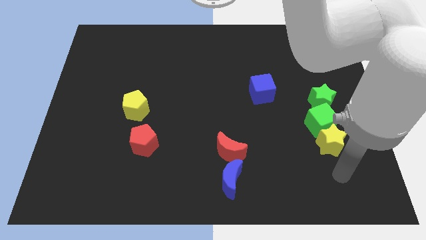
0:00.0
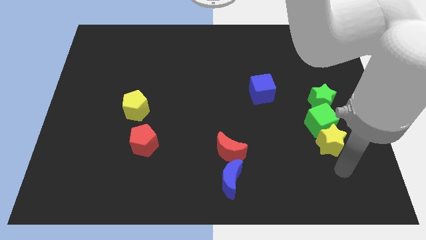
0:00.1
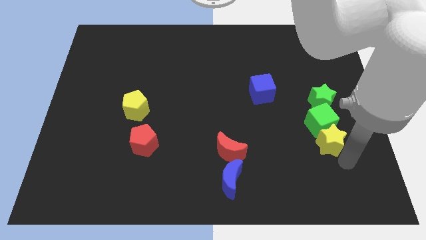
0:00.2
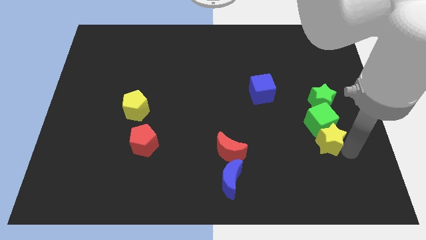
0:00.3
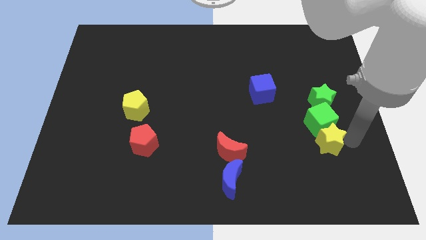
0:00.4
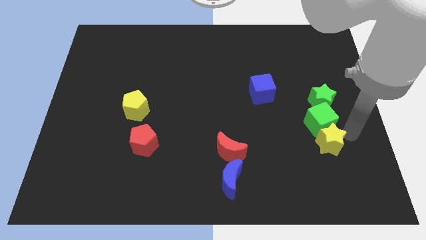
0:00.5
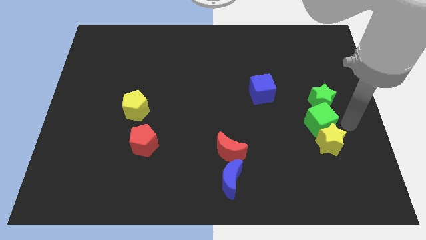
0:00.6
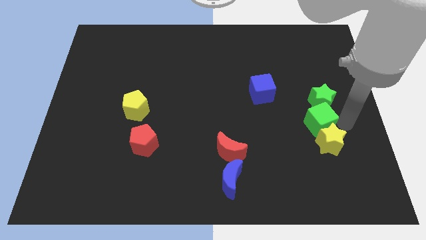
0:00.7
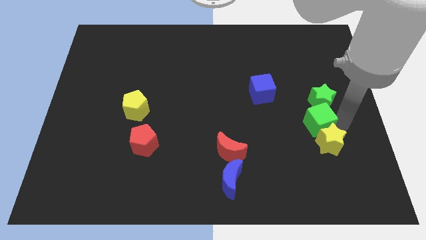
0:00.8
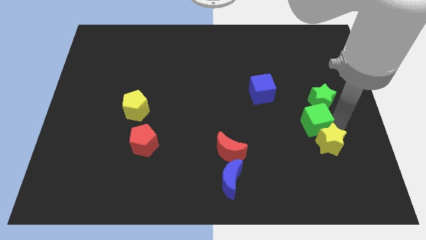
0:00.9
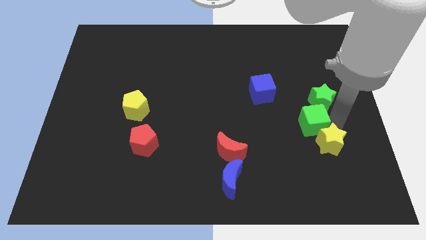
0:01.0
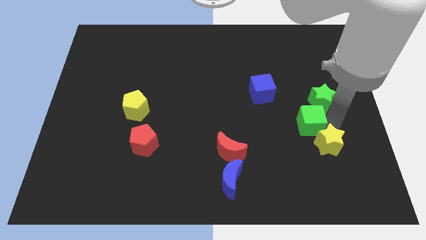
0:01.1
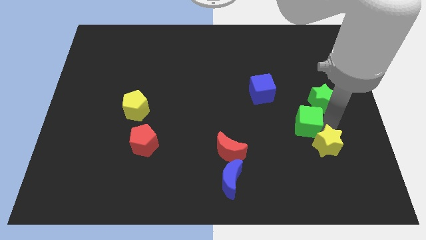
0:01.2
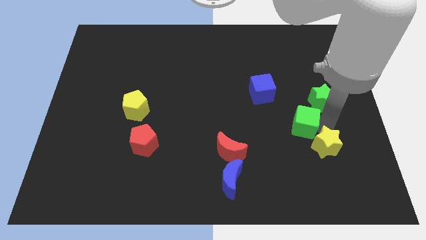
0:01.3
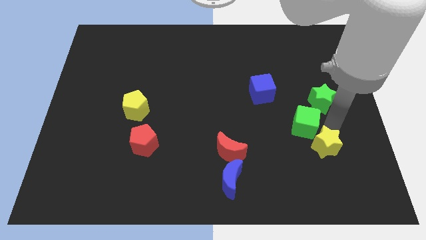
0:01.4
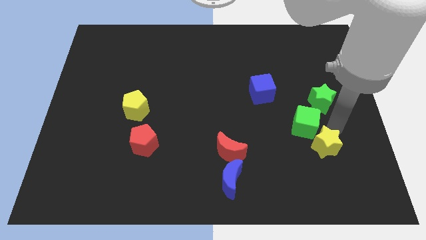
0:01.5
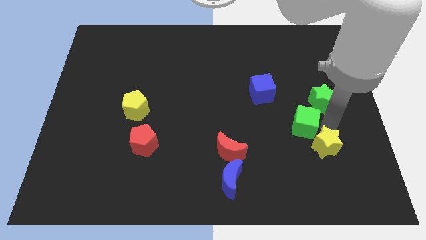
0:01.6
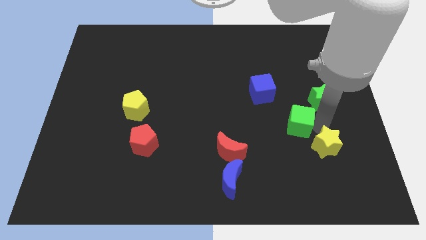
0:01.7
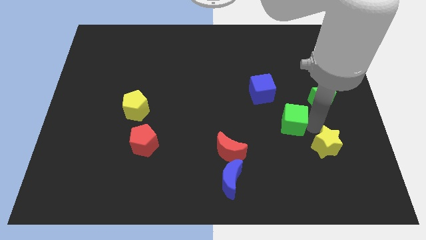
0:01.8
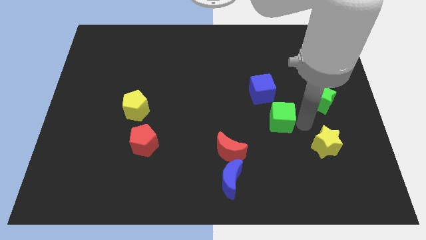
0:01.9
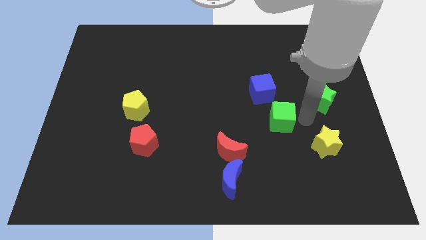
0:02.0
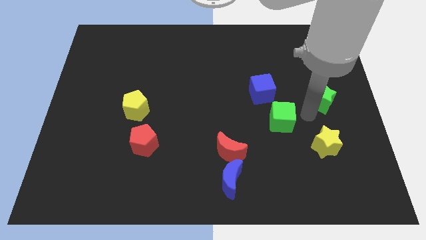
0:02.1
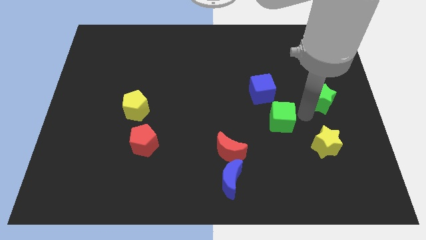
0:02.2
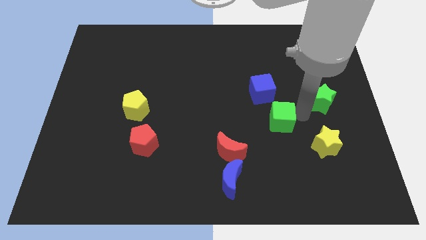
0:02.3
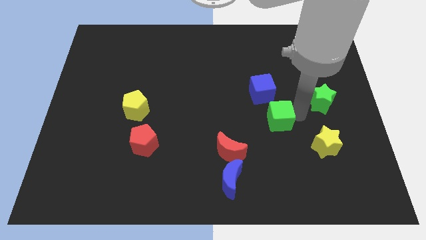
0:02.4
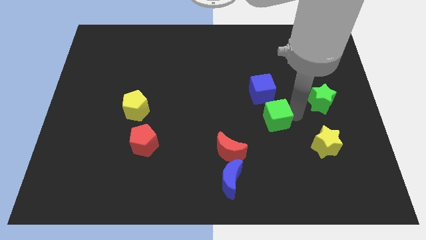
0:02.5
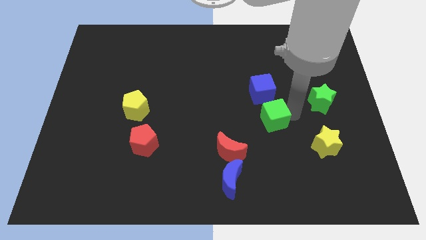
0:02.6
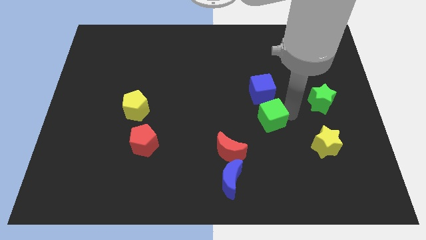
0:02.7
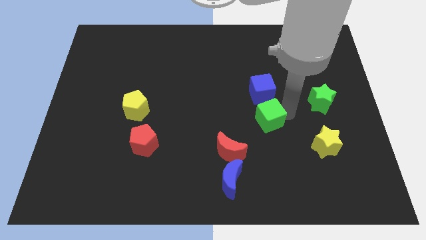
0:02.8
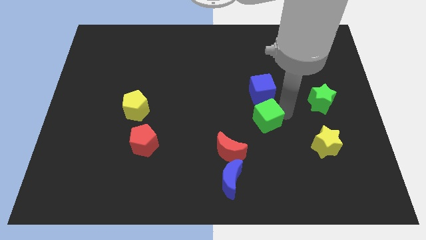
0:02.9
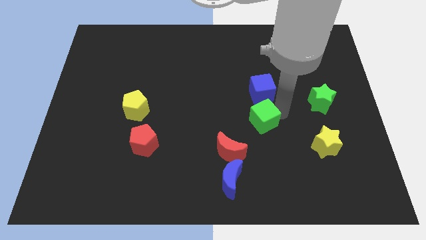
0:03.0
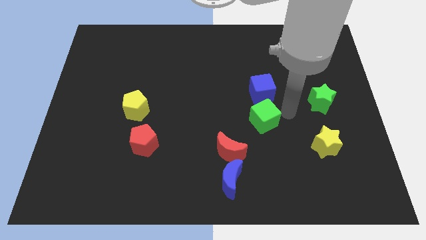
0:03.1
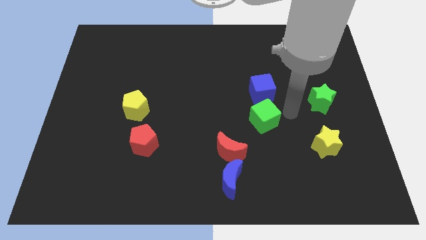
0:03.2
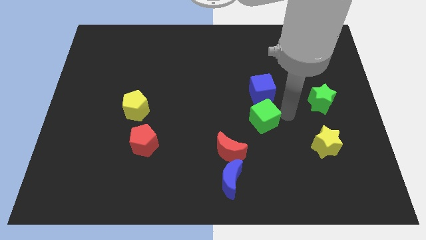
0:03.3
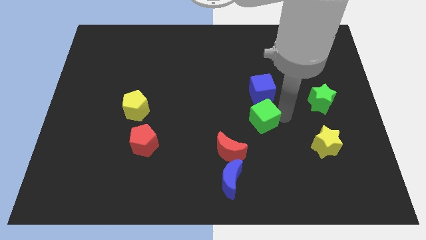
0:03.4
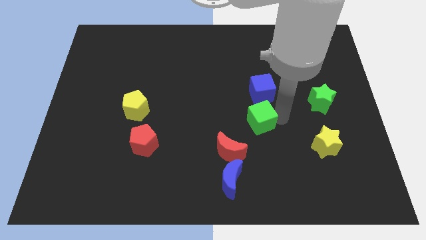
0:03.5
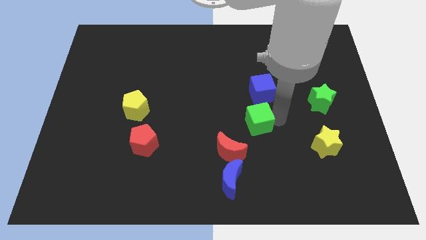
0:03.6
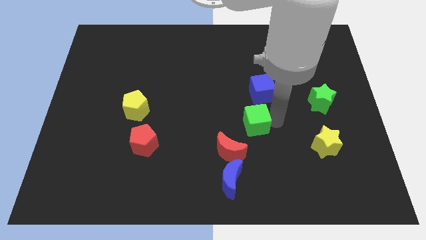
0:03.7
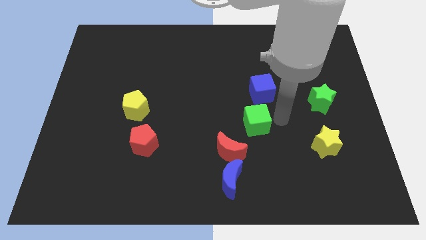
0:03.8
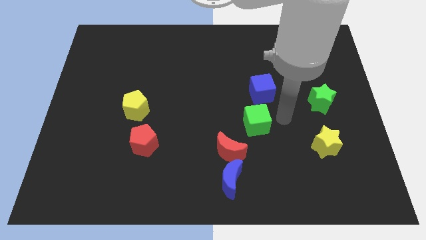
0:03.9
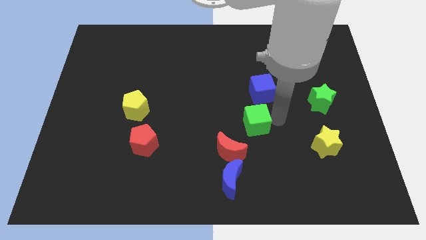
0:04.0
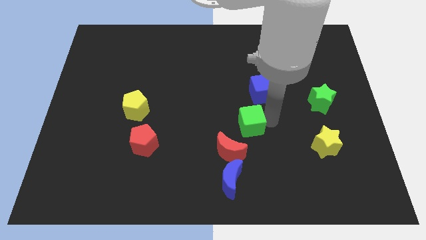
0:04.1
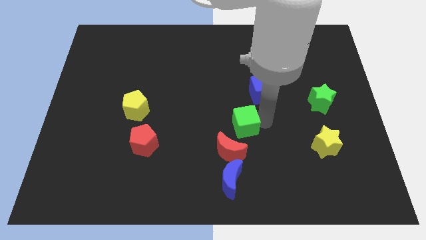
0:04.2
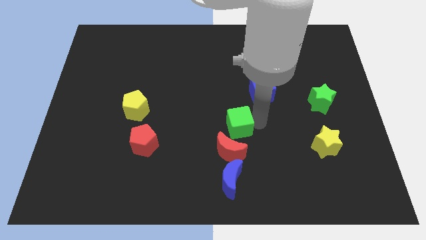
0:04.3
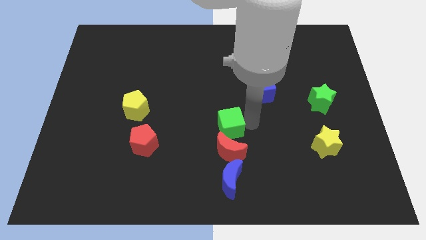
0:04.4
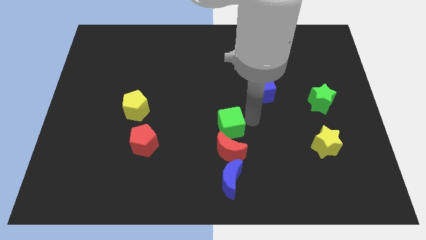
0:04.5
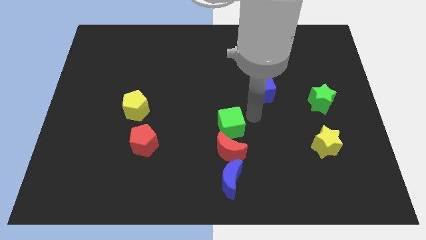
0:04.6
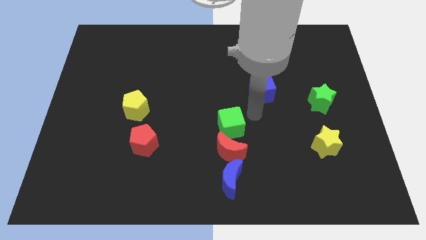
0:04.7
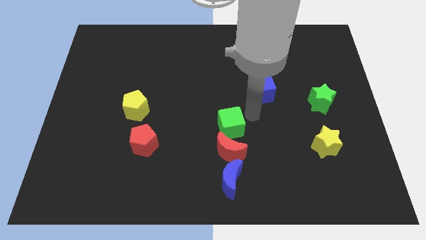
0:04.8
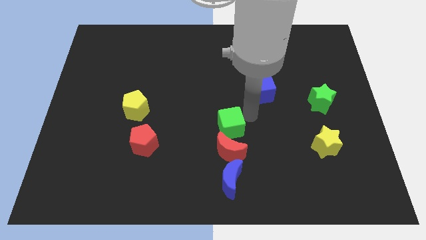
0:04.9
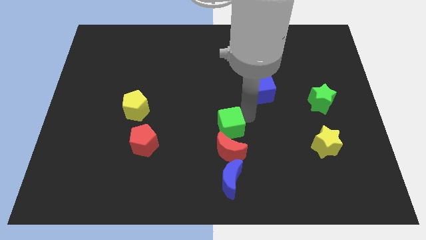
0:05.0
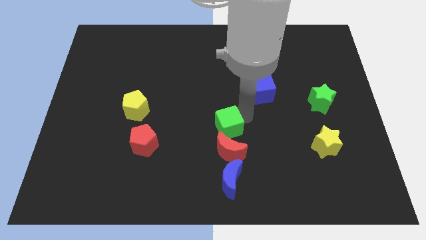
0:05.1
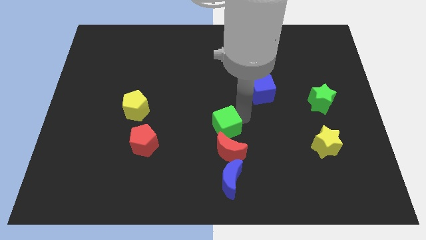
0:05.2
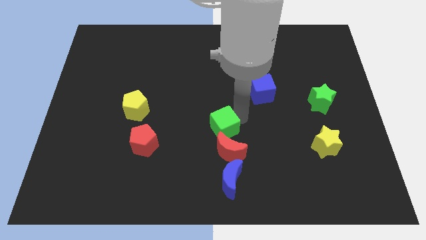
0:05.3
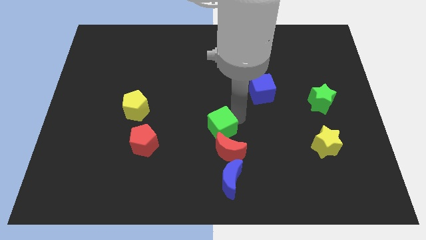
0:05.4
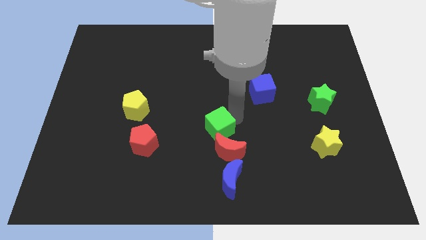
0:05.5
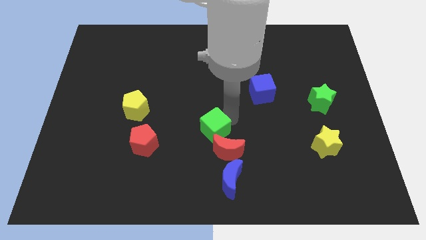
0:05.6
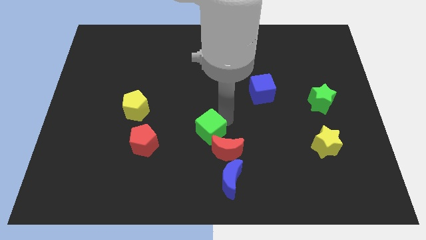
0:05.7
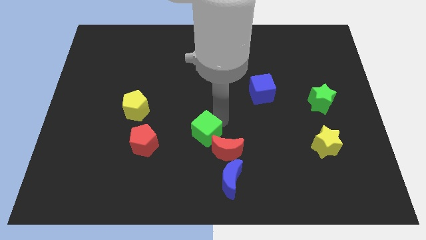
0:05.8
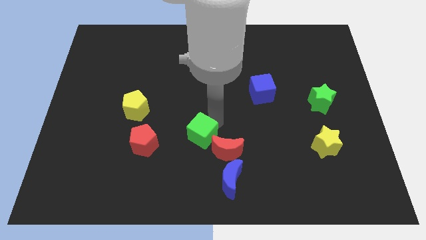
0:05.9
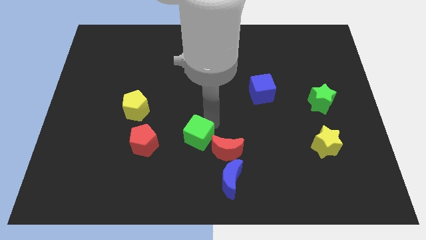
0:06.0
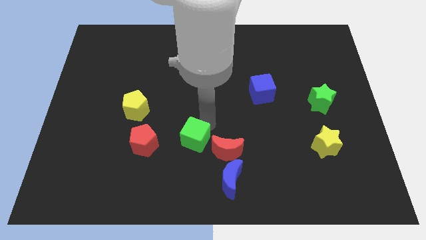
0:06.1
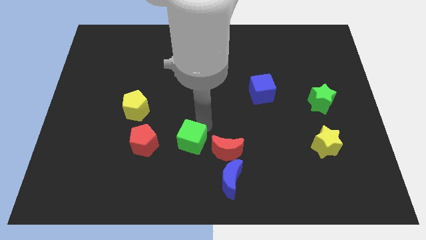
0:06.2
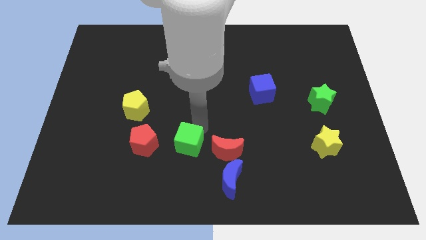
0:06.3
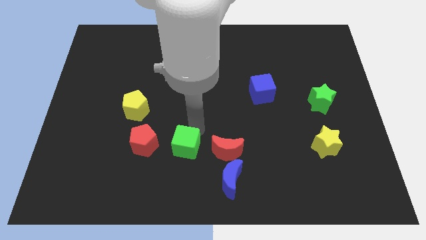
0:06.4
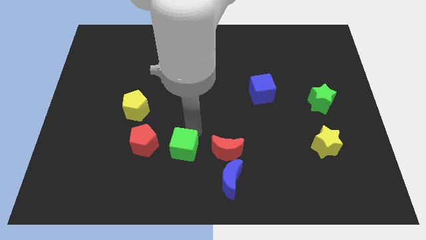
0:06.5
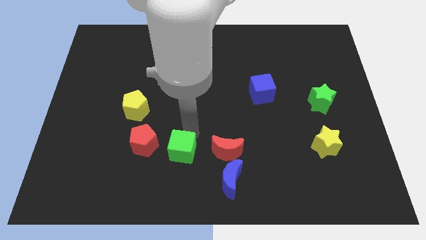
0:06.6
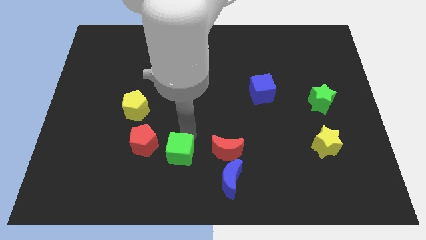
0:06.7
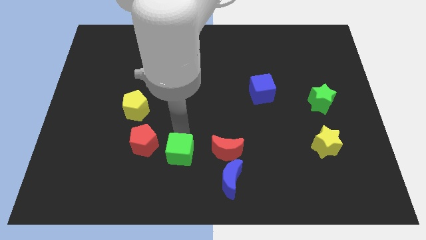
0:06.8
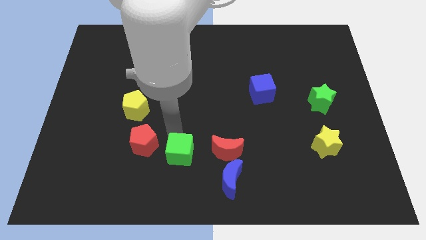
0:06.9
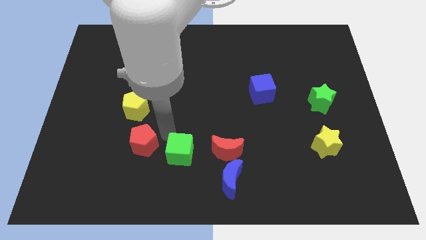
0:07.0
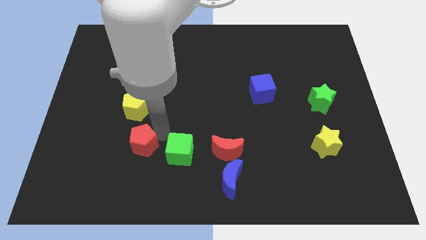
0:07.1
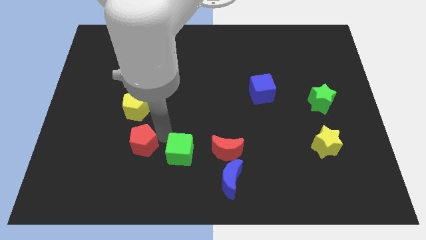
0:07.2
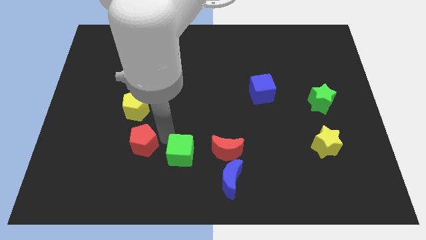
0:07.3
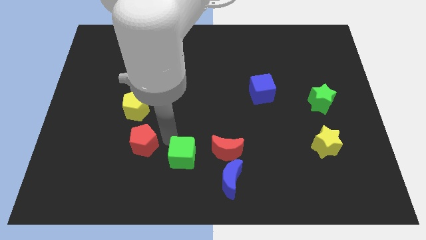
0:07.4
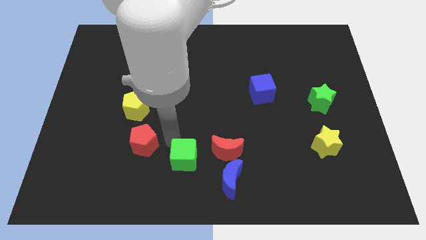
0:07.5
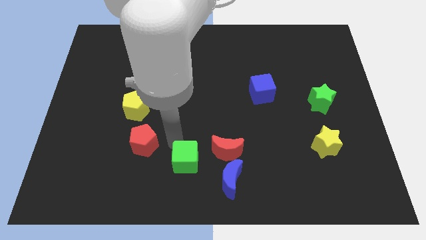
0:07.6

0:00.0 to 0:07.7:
push the green cube to the bottom left of the red moon
